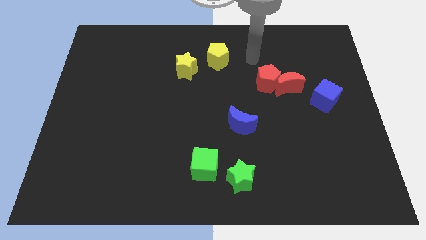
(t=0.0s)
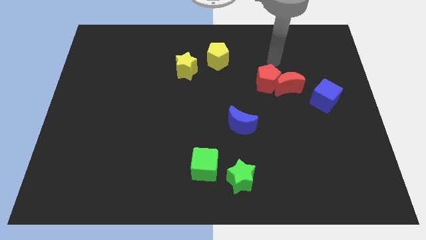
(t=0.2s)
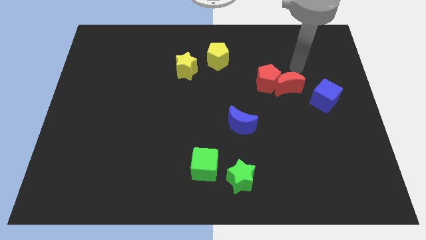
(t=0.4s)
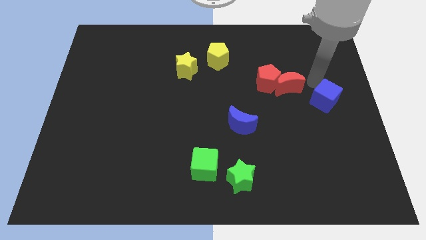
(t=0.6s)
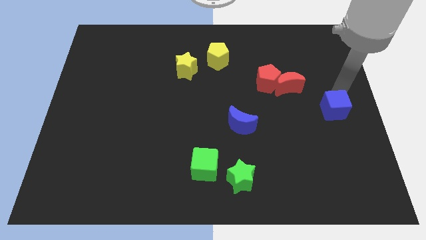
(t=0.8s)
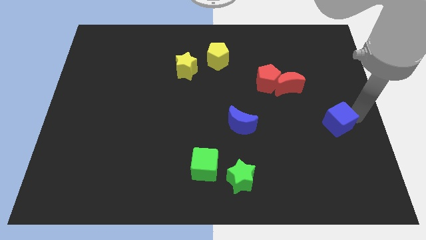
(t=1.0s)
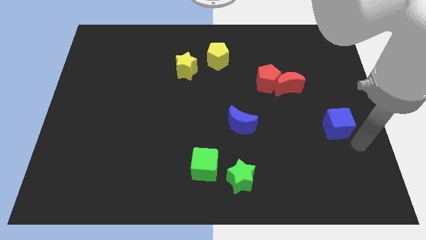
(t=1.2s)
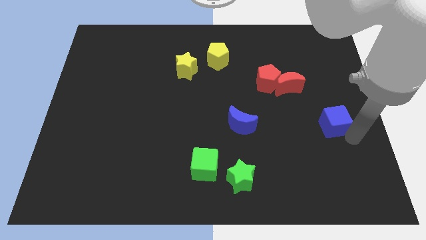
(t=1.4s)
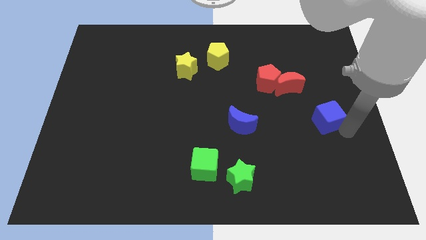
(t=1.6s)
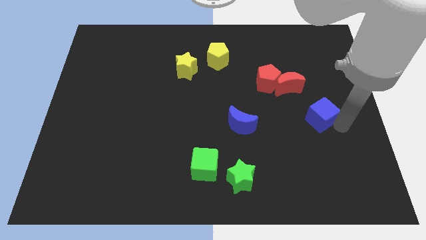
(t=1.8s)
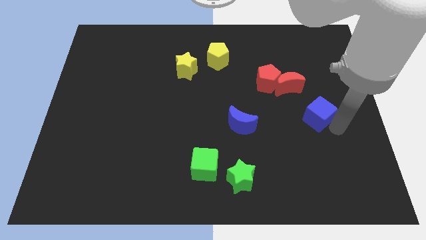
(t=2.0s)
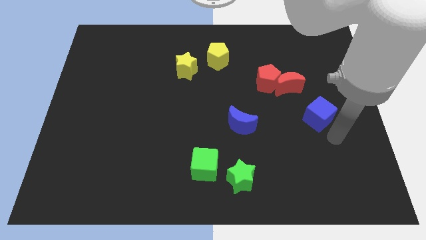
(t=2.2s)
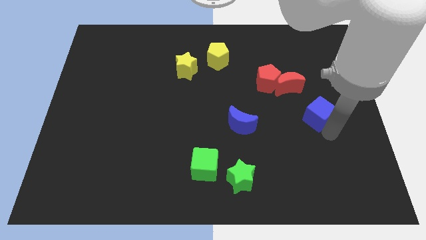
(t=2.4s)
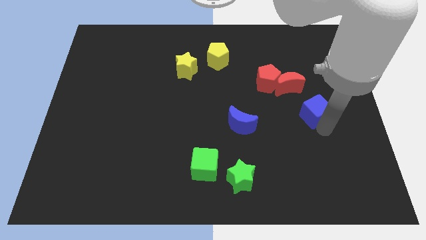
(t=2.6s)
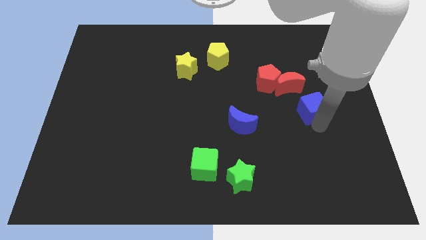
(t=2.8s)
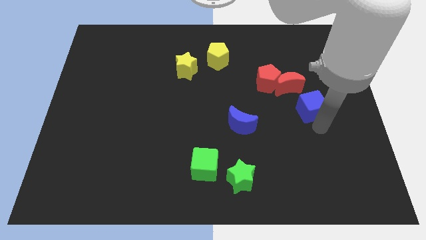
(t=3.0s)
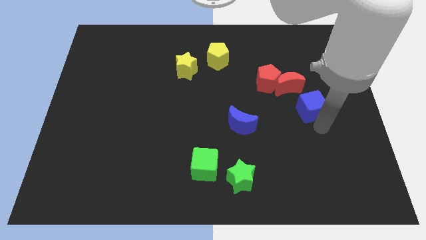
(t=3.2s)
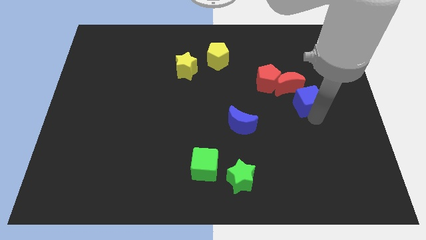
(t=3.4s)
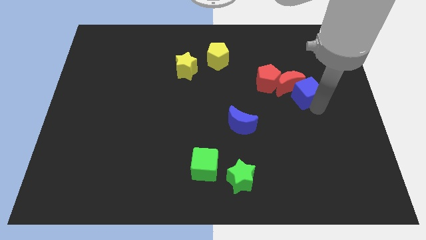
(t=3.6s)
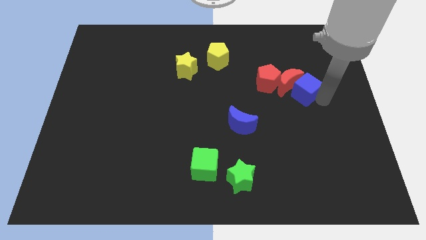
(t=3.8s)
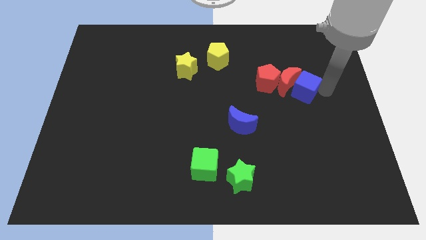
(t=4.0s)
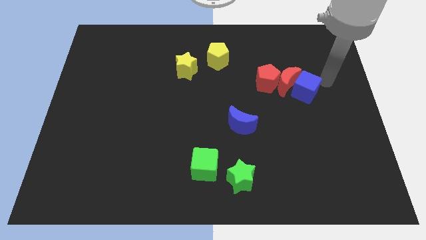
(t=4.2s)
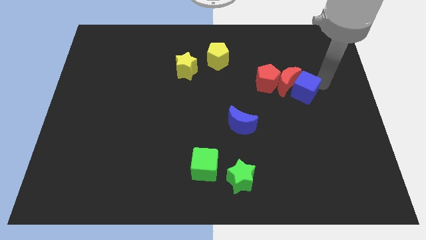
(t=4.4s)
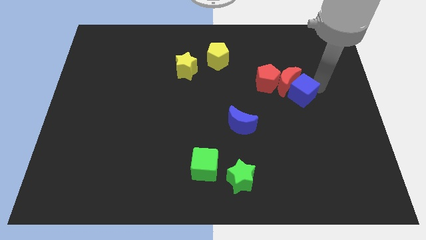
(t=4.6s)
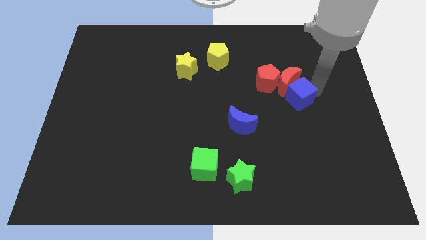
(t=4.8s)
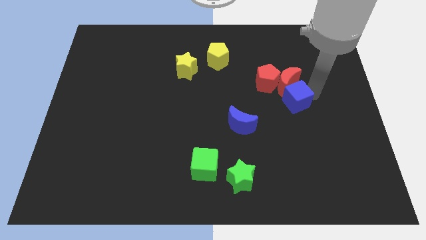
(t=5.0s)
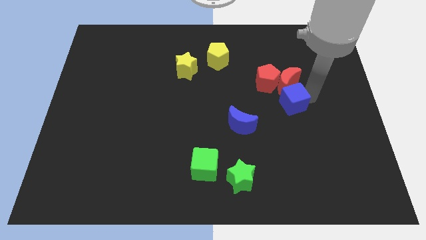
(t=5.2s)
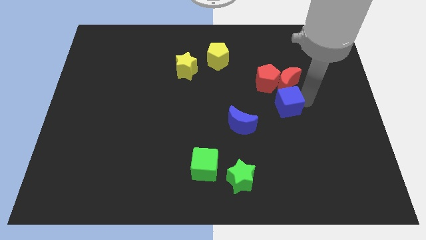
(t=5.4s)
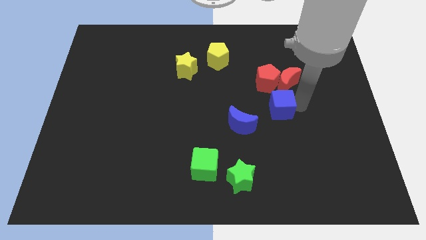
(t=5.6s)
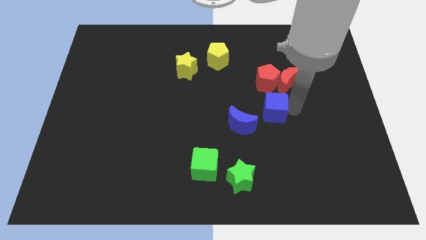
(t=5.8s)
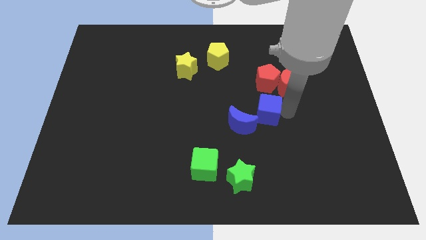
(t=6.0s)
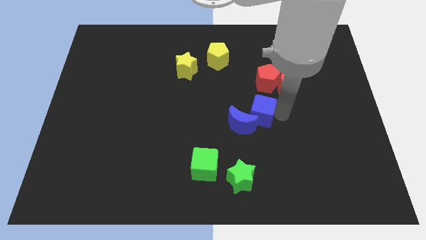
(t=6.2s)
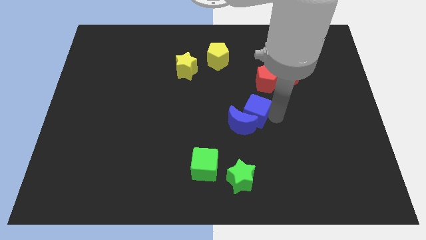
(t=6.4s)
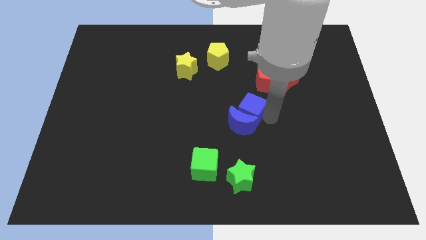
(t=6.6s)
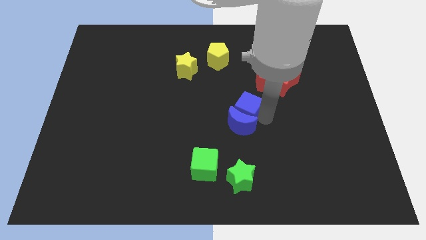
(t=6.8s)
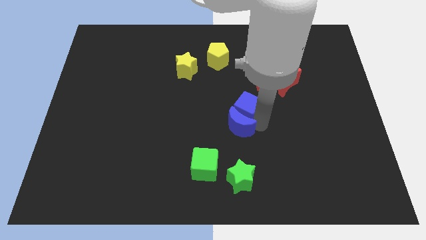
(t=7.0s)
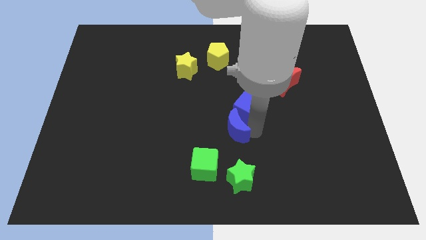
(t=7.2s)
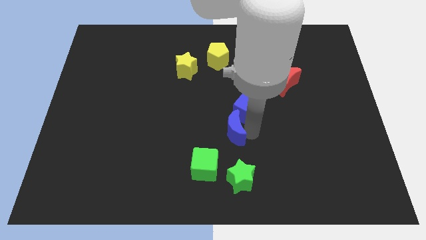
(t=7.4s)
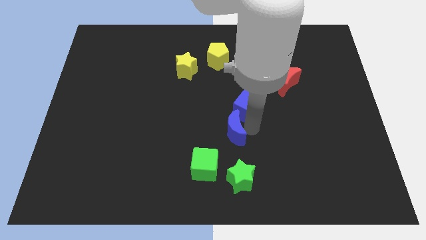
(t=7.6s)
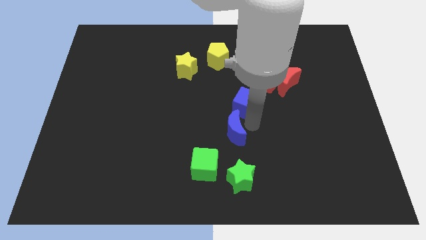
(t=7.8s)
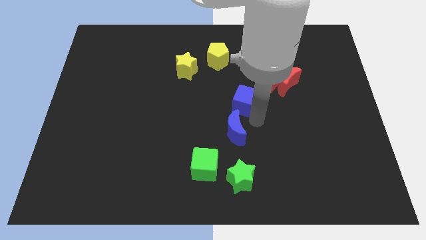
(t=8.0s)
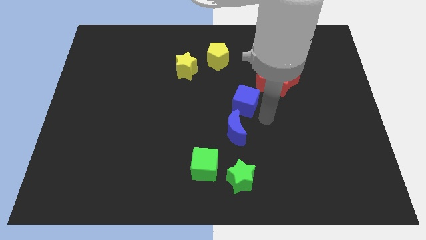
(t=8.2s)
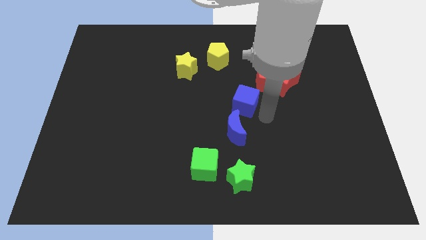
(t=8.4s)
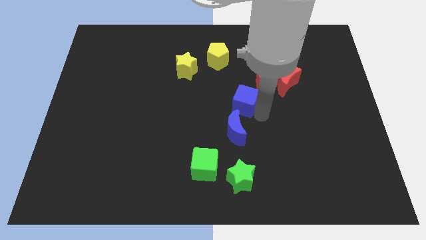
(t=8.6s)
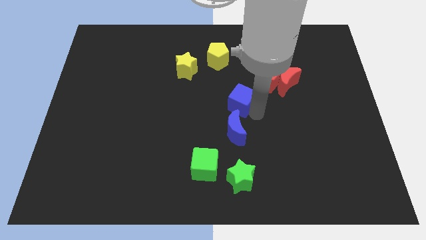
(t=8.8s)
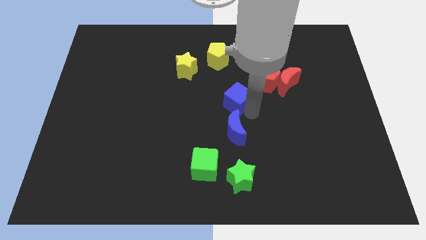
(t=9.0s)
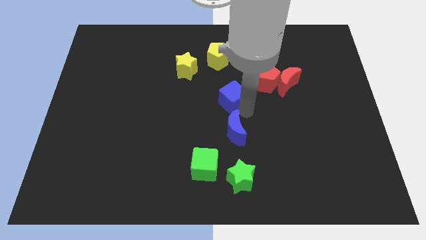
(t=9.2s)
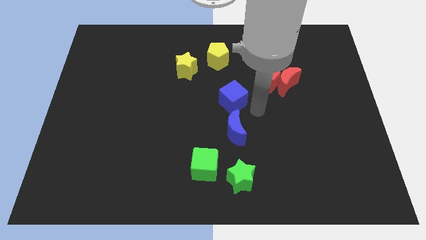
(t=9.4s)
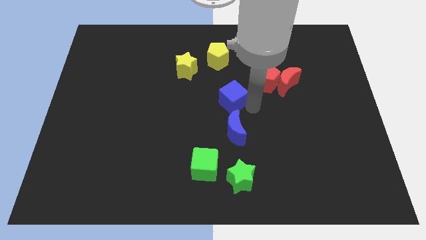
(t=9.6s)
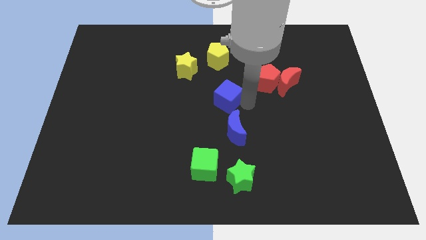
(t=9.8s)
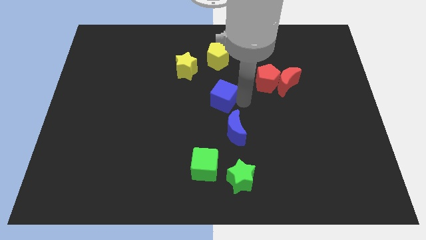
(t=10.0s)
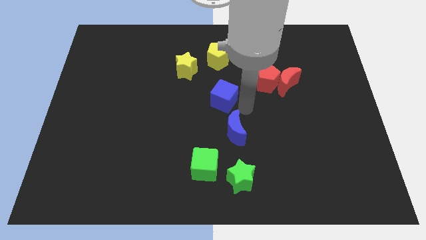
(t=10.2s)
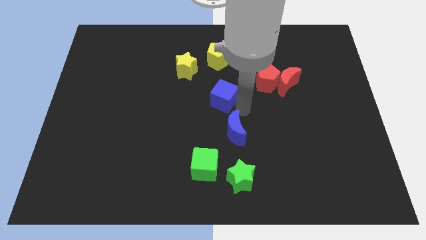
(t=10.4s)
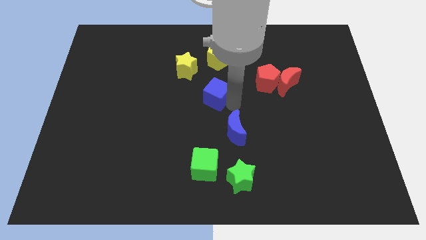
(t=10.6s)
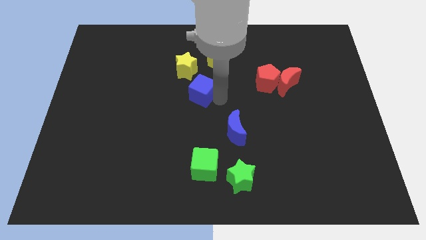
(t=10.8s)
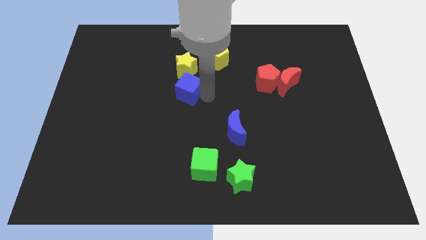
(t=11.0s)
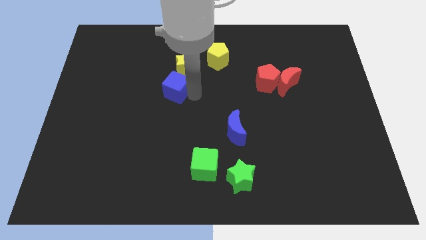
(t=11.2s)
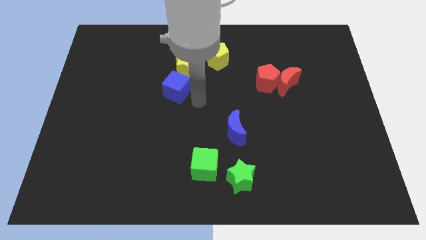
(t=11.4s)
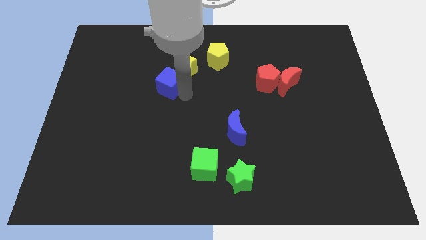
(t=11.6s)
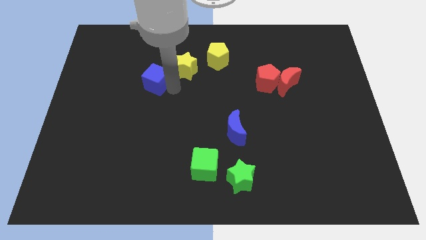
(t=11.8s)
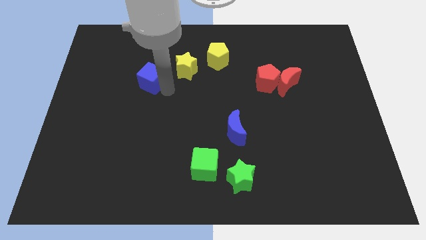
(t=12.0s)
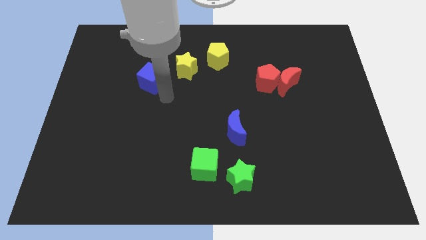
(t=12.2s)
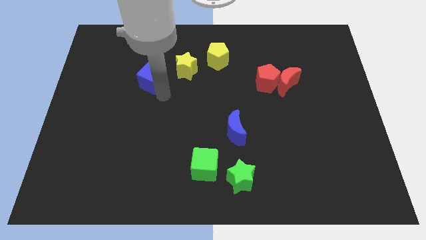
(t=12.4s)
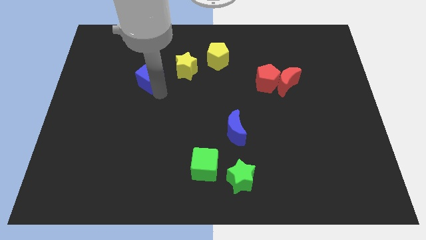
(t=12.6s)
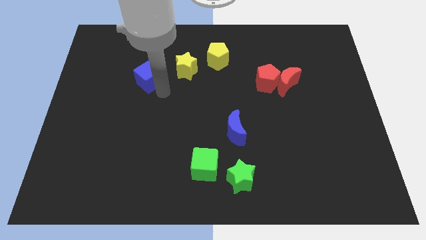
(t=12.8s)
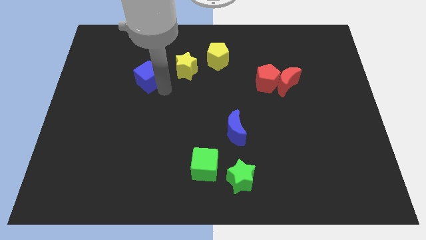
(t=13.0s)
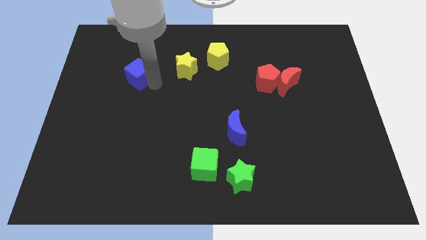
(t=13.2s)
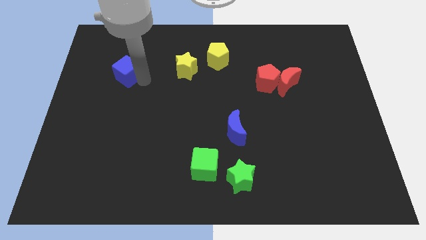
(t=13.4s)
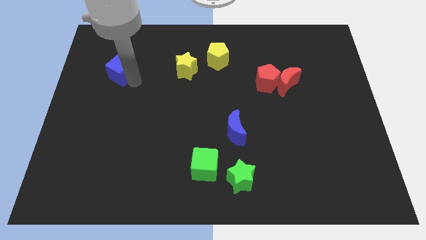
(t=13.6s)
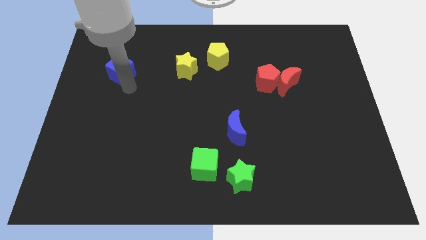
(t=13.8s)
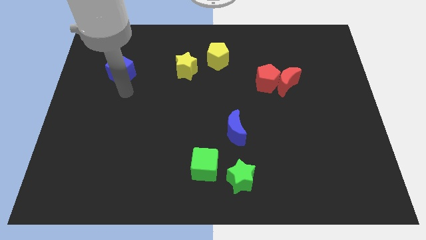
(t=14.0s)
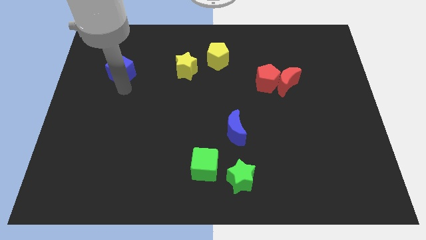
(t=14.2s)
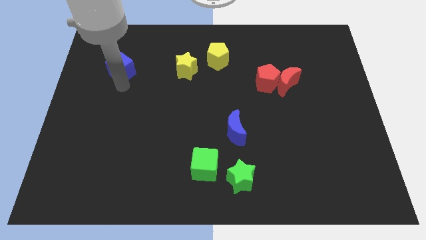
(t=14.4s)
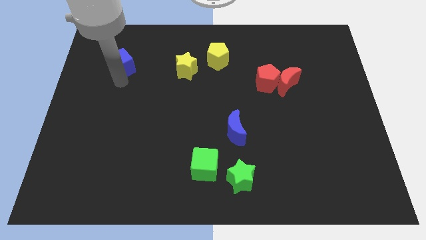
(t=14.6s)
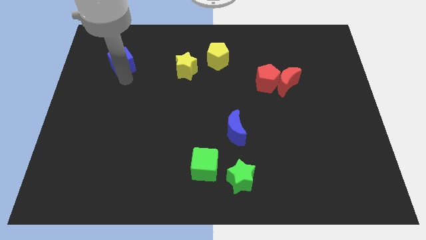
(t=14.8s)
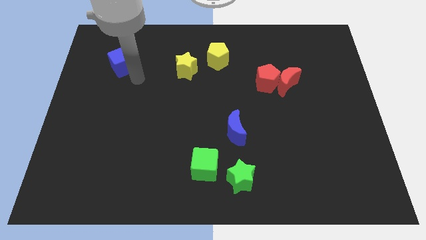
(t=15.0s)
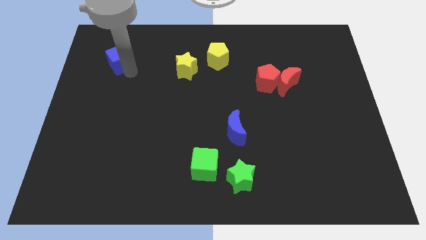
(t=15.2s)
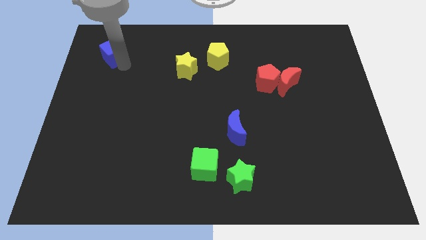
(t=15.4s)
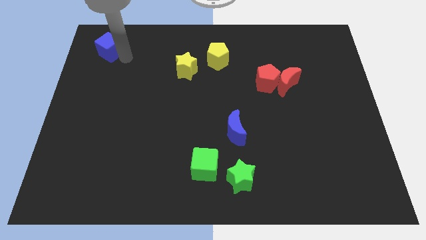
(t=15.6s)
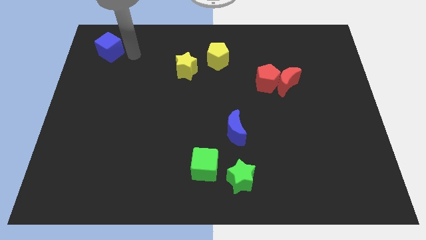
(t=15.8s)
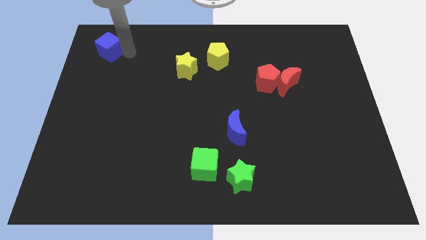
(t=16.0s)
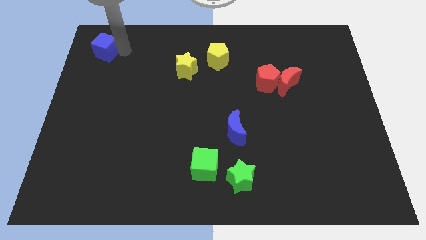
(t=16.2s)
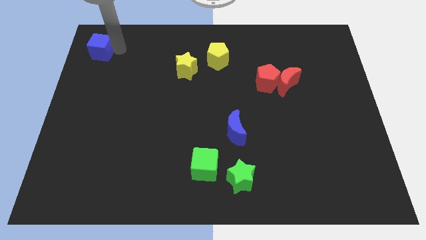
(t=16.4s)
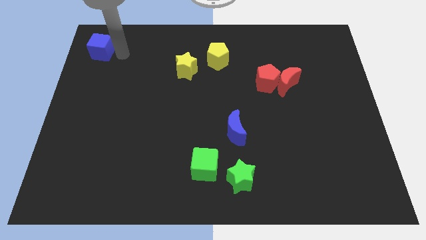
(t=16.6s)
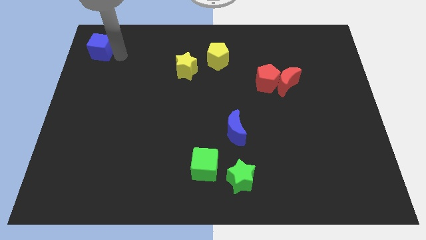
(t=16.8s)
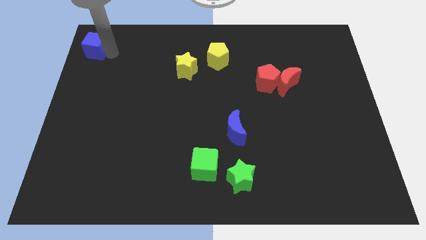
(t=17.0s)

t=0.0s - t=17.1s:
slide the blue cube to the top left of the board
